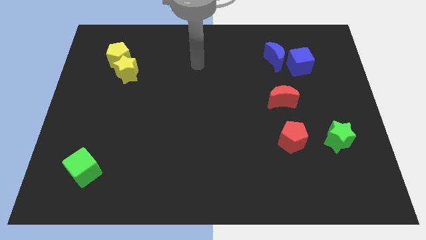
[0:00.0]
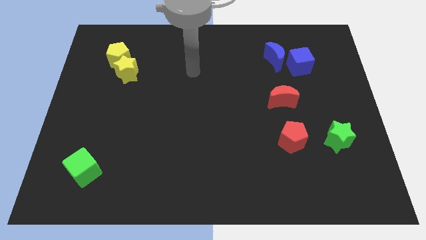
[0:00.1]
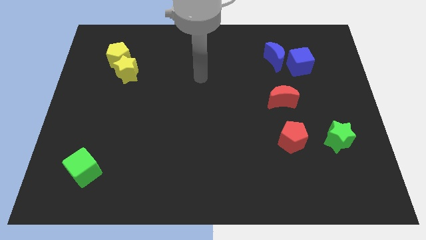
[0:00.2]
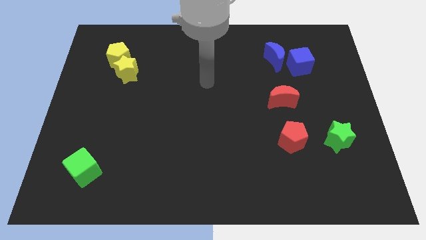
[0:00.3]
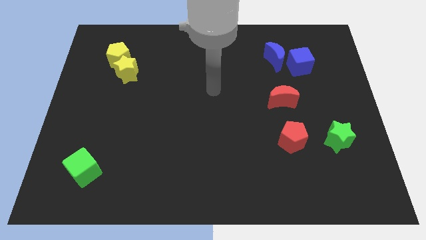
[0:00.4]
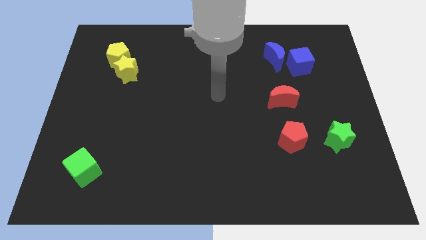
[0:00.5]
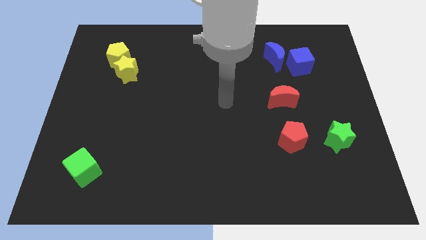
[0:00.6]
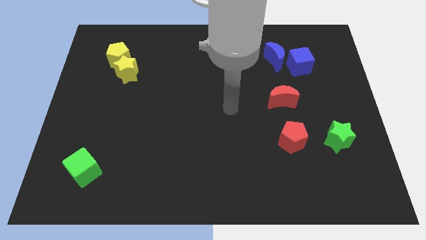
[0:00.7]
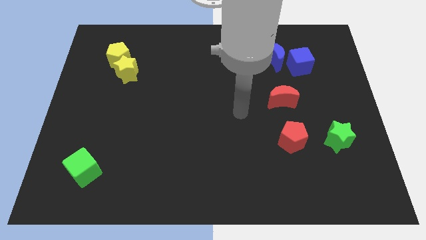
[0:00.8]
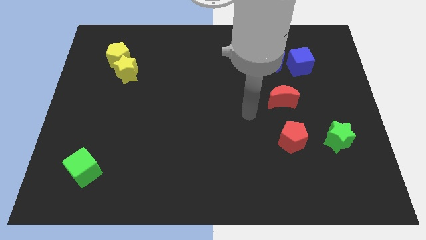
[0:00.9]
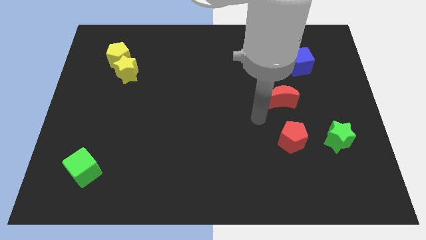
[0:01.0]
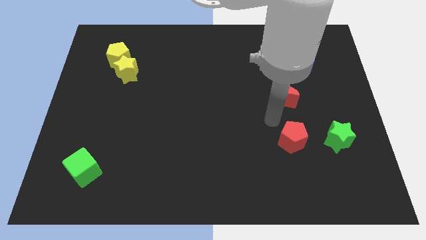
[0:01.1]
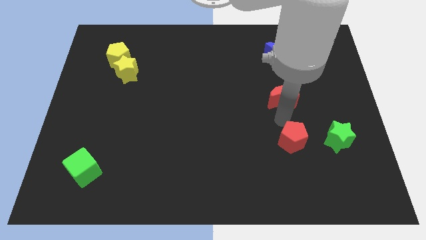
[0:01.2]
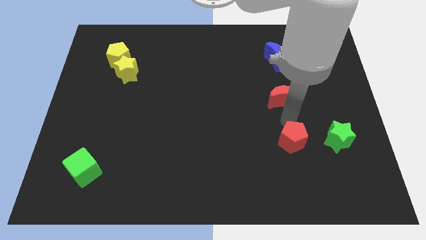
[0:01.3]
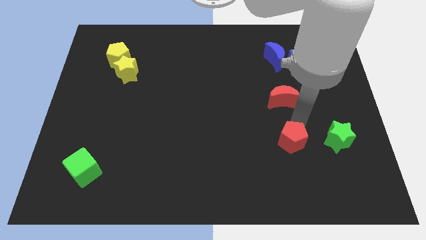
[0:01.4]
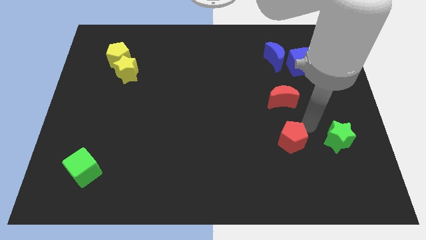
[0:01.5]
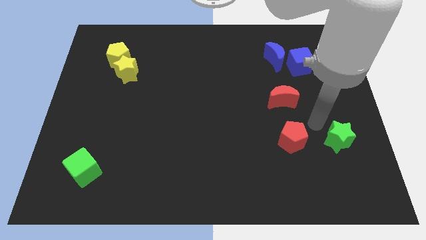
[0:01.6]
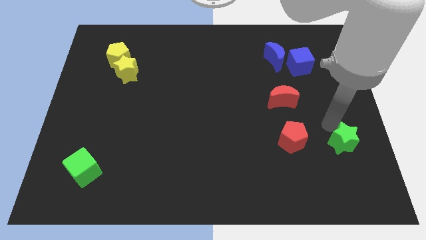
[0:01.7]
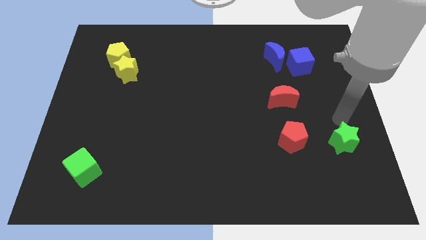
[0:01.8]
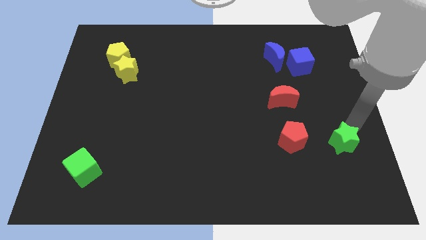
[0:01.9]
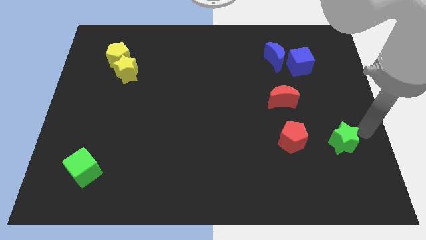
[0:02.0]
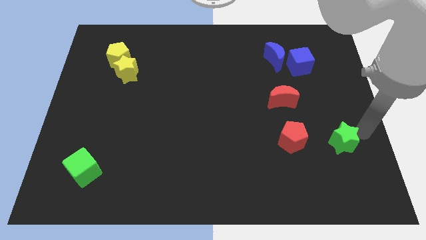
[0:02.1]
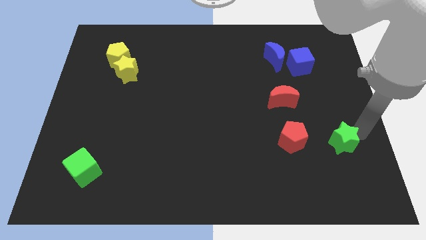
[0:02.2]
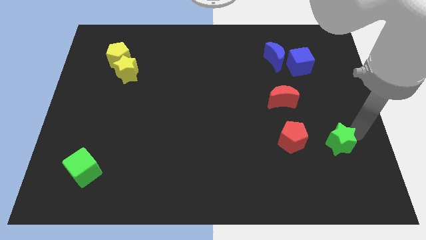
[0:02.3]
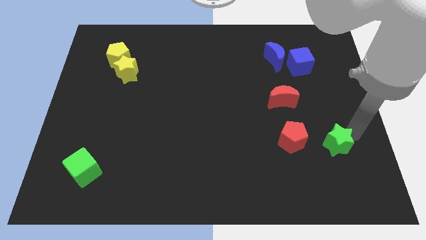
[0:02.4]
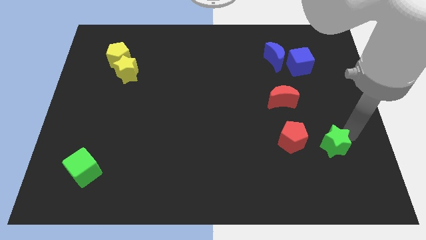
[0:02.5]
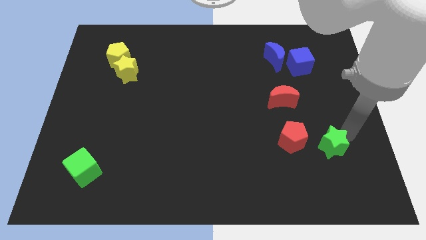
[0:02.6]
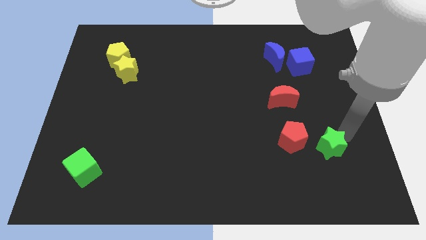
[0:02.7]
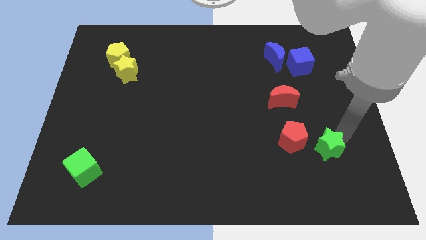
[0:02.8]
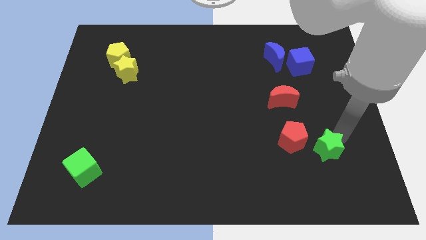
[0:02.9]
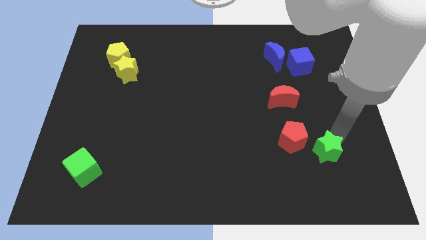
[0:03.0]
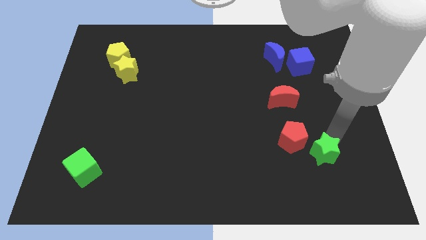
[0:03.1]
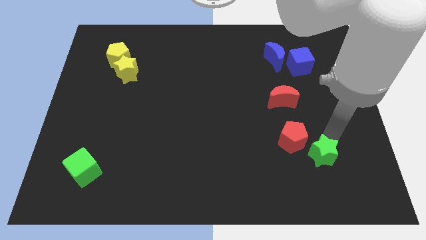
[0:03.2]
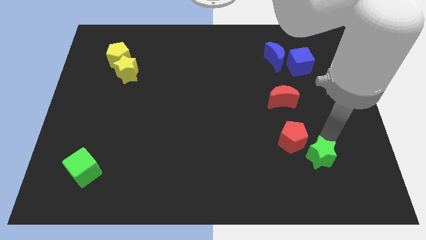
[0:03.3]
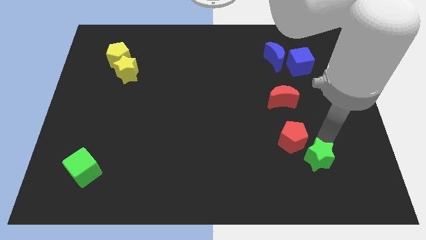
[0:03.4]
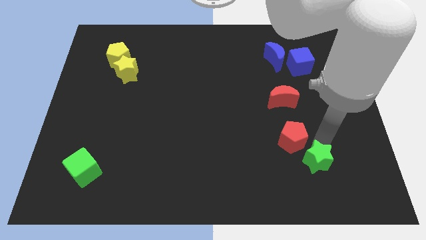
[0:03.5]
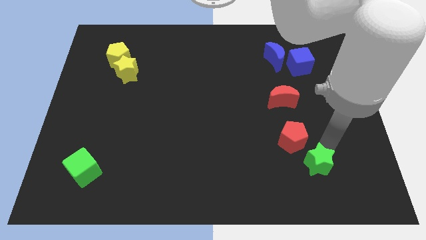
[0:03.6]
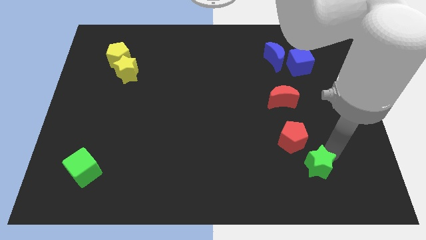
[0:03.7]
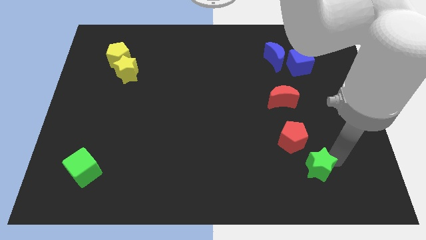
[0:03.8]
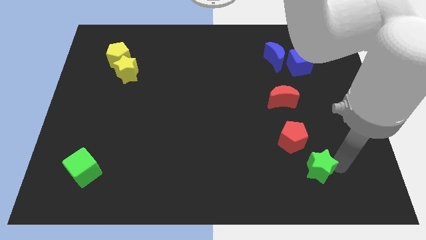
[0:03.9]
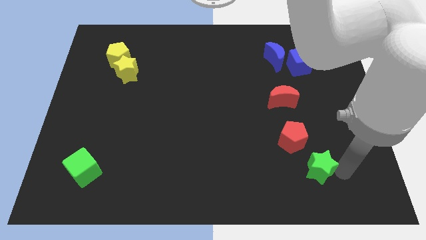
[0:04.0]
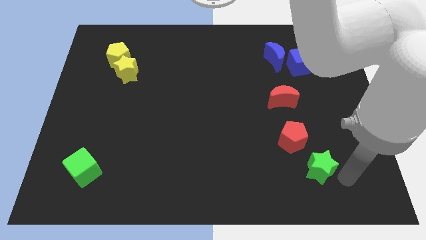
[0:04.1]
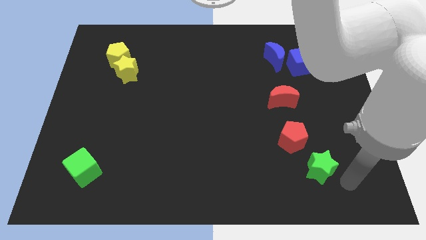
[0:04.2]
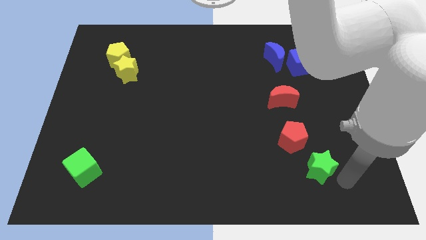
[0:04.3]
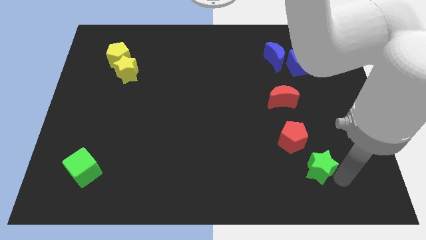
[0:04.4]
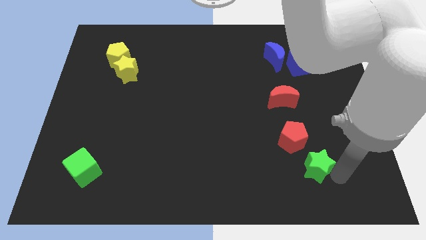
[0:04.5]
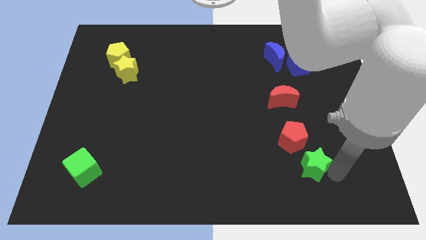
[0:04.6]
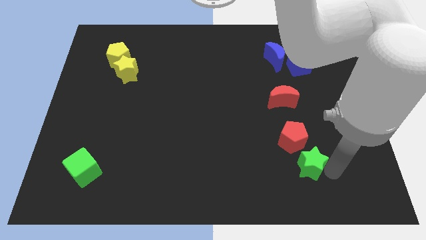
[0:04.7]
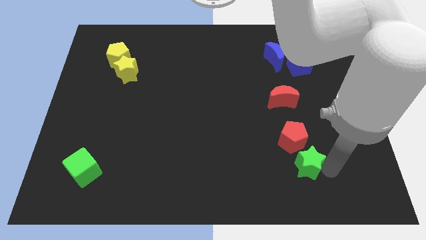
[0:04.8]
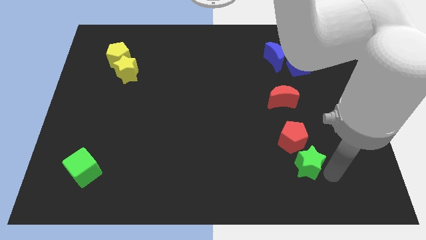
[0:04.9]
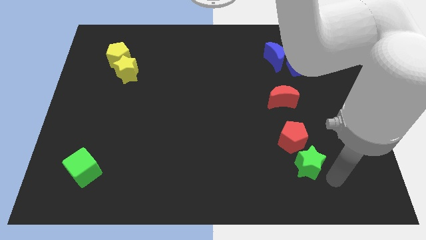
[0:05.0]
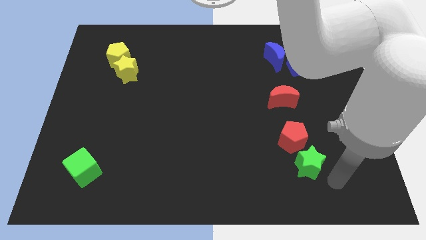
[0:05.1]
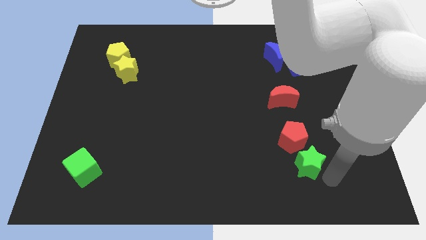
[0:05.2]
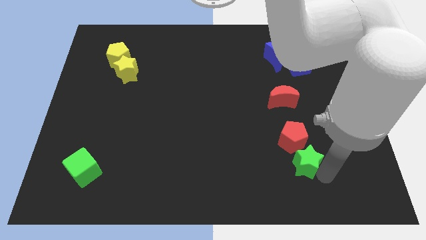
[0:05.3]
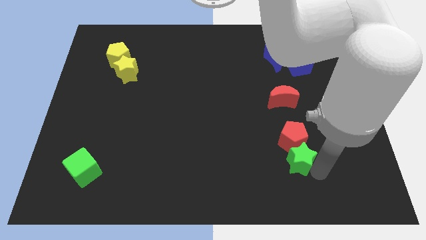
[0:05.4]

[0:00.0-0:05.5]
move the green star a little bit to the left

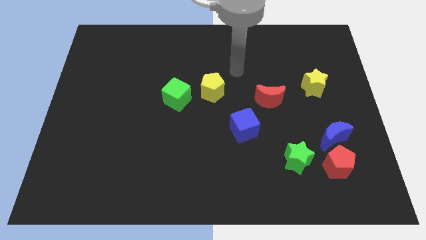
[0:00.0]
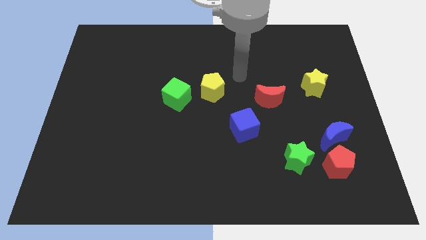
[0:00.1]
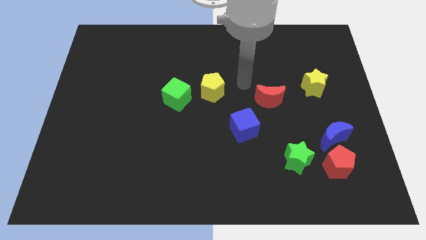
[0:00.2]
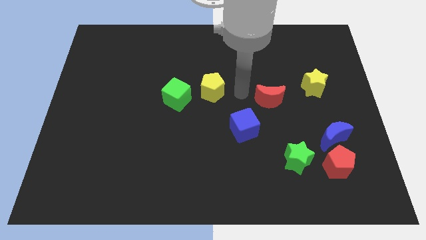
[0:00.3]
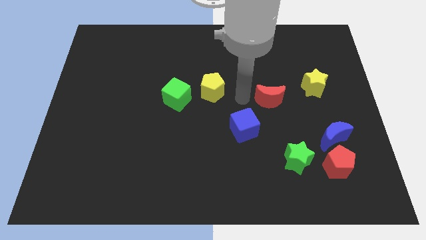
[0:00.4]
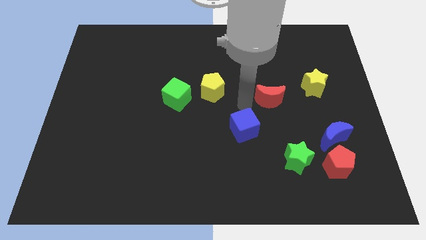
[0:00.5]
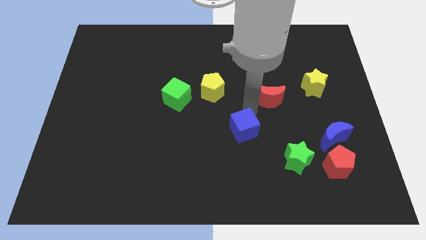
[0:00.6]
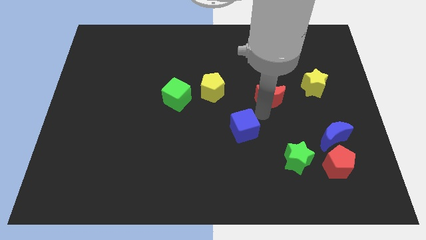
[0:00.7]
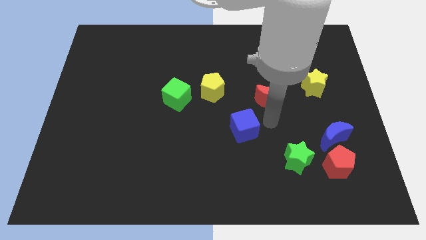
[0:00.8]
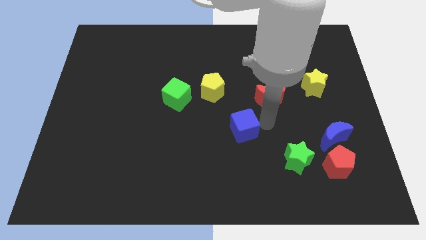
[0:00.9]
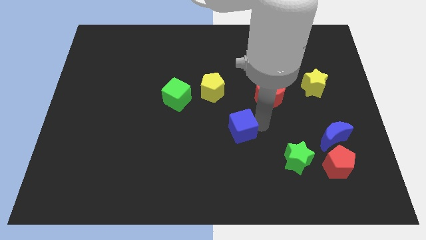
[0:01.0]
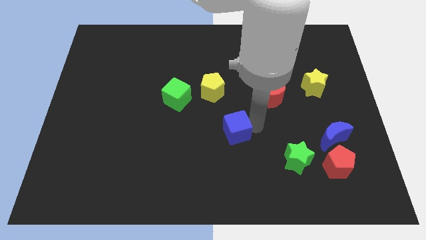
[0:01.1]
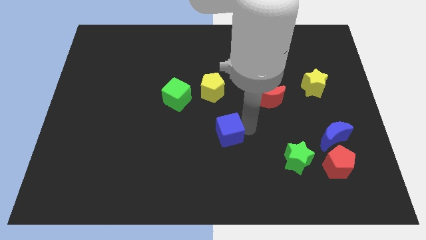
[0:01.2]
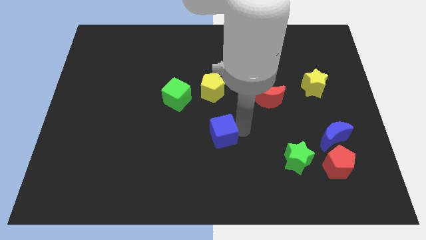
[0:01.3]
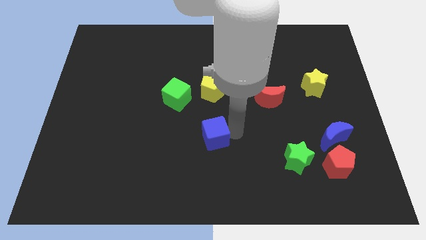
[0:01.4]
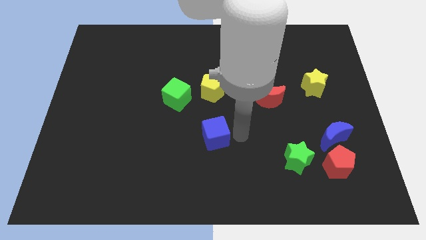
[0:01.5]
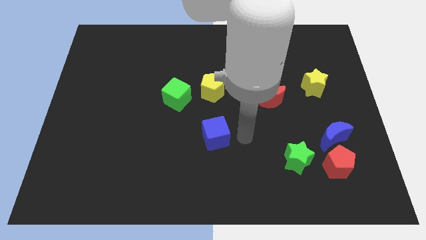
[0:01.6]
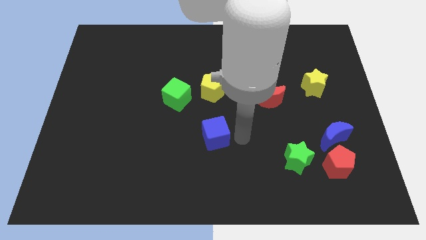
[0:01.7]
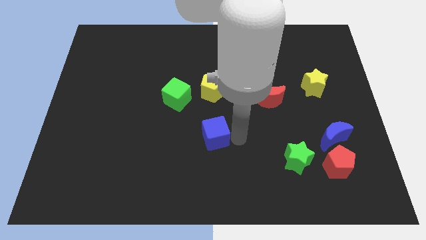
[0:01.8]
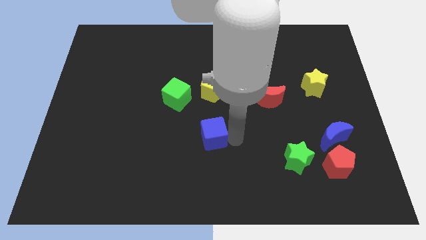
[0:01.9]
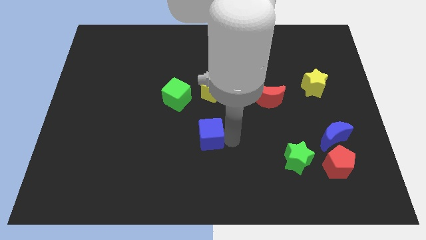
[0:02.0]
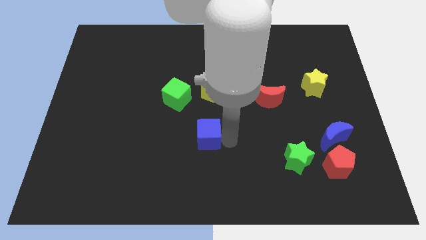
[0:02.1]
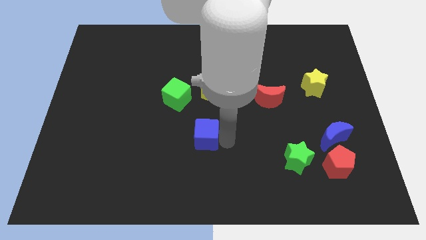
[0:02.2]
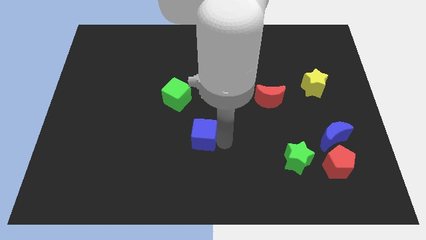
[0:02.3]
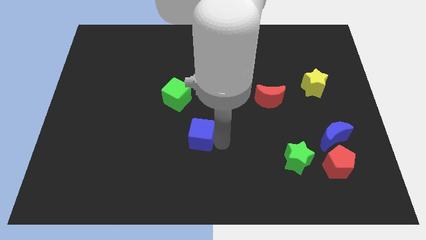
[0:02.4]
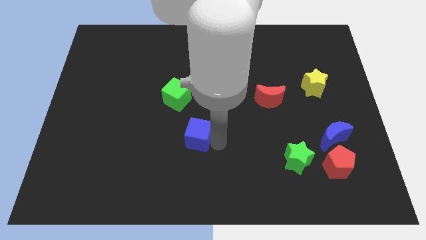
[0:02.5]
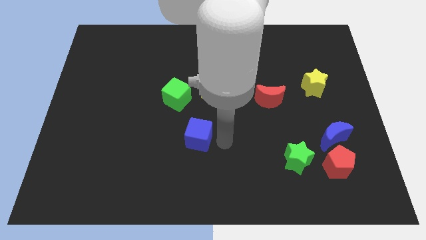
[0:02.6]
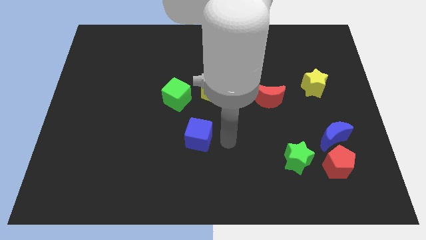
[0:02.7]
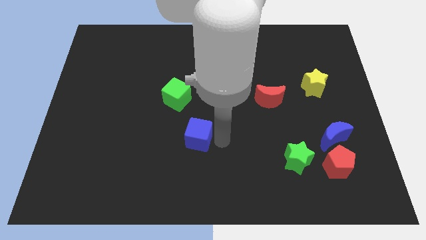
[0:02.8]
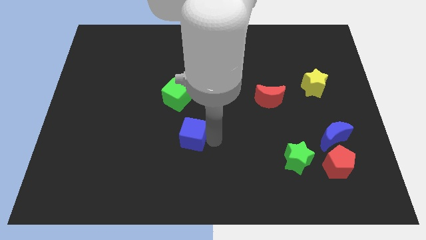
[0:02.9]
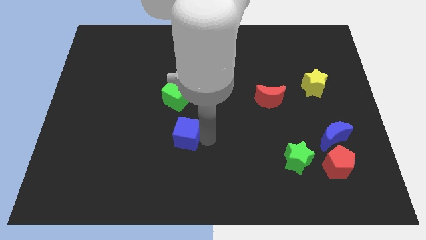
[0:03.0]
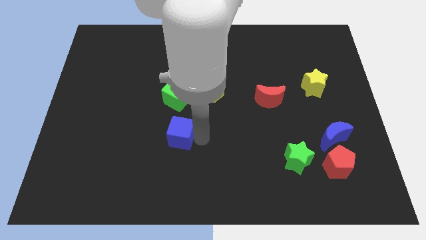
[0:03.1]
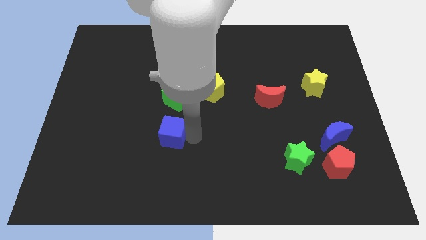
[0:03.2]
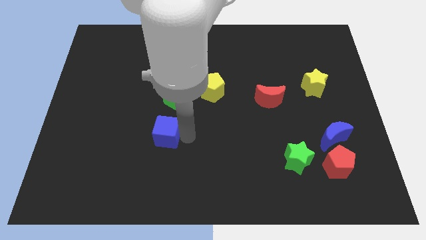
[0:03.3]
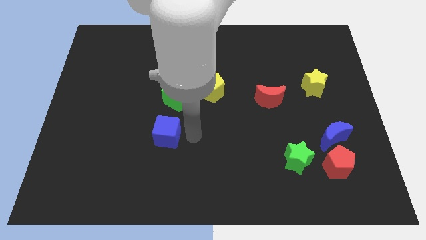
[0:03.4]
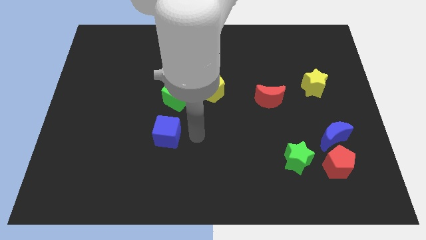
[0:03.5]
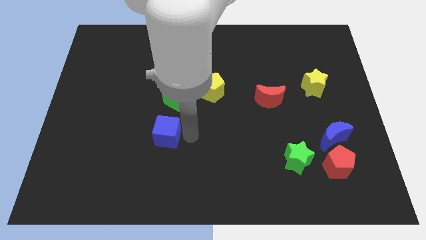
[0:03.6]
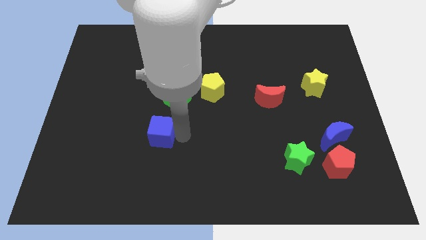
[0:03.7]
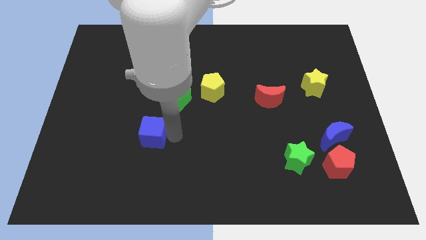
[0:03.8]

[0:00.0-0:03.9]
slide the blue cube left
